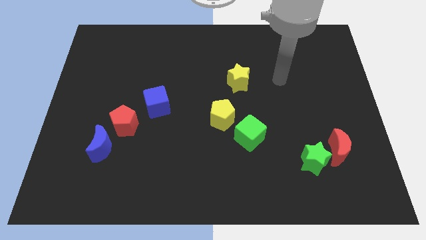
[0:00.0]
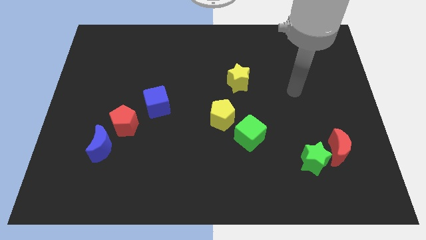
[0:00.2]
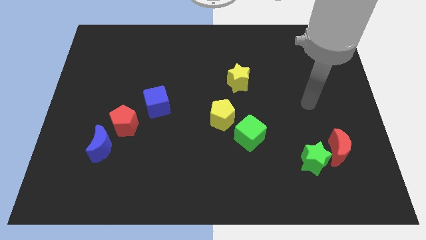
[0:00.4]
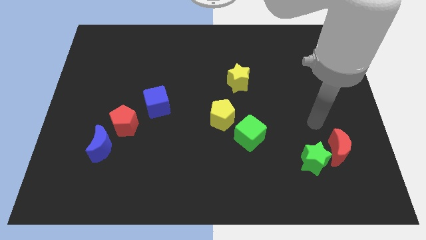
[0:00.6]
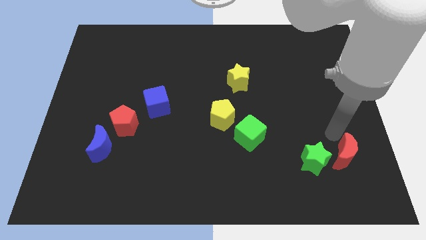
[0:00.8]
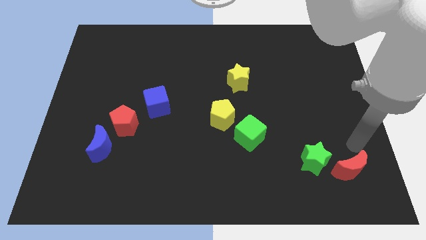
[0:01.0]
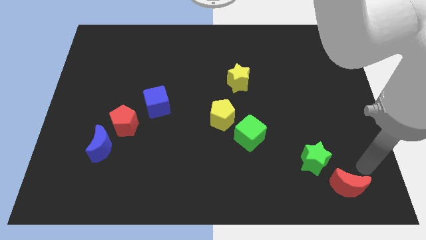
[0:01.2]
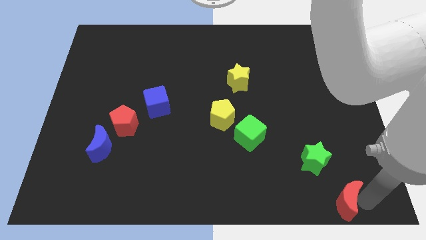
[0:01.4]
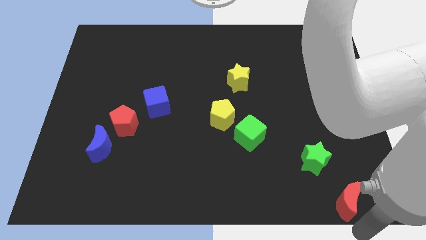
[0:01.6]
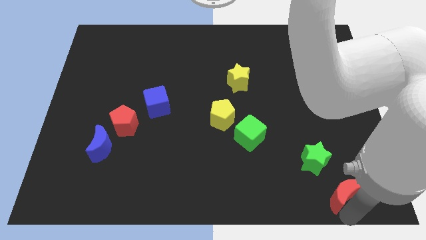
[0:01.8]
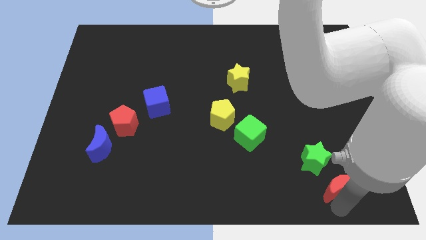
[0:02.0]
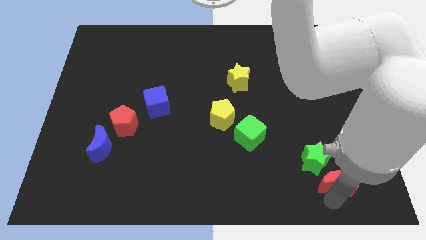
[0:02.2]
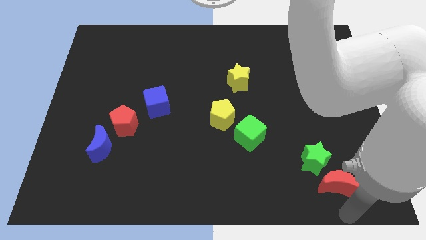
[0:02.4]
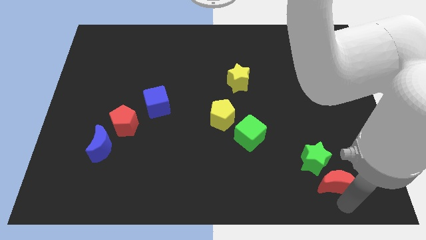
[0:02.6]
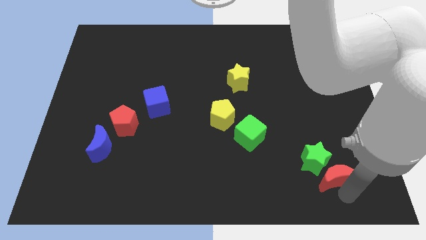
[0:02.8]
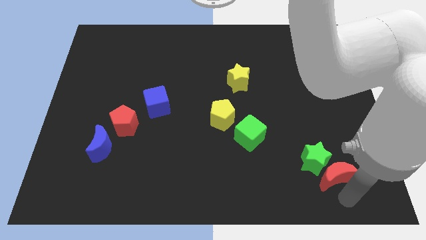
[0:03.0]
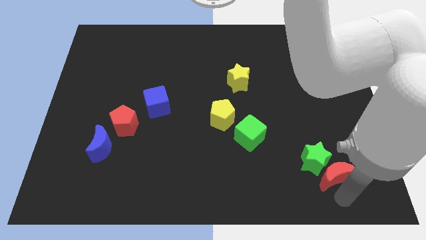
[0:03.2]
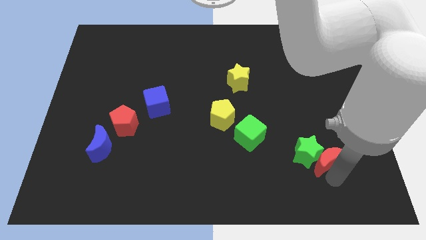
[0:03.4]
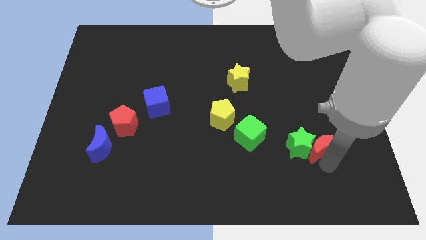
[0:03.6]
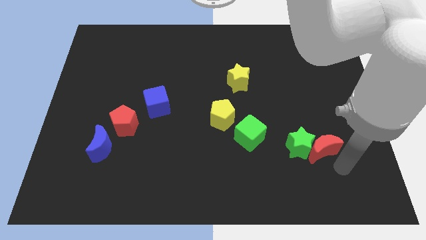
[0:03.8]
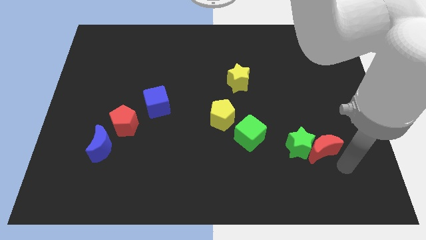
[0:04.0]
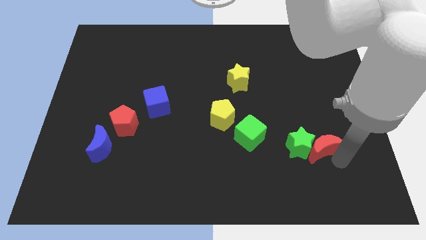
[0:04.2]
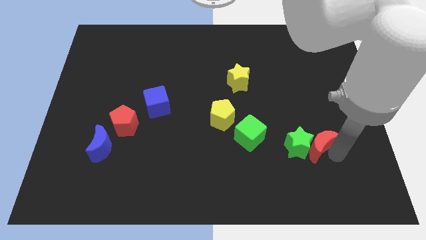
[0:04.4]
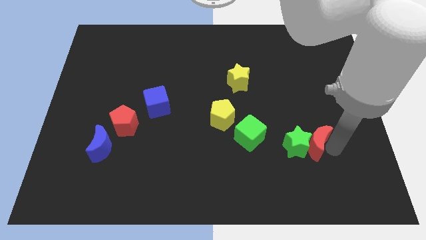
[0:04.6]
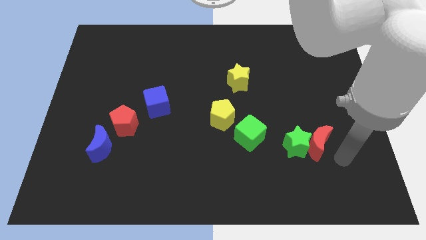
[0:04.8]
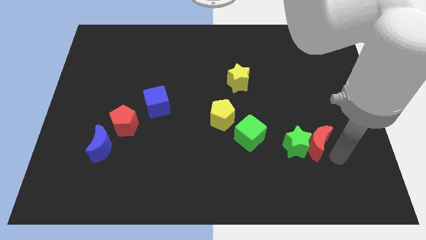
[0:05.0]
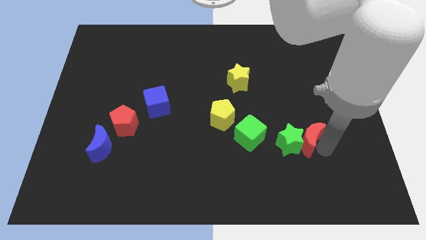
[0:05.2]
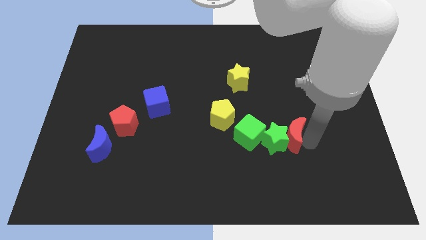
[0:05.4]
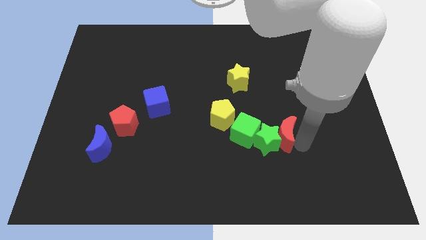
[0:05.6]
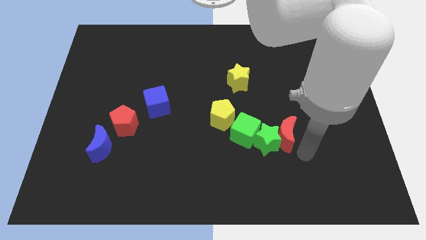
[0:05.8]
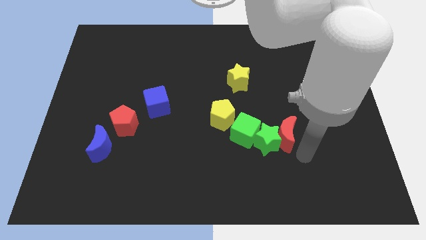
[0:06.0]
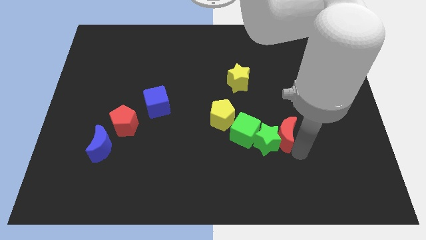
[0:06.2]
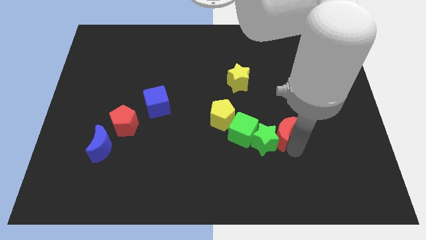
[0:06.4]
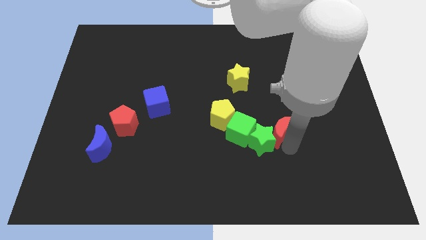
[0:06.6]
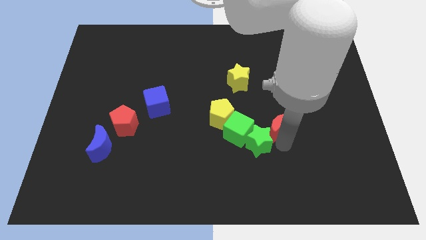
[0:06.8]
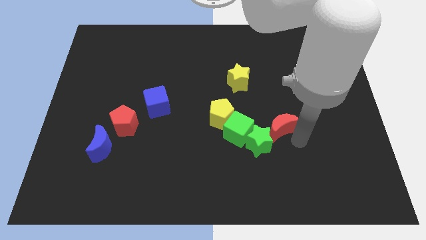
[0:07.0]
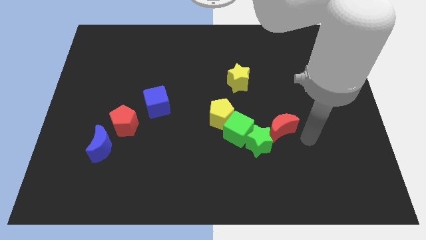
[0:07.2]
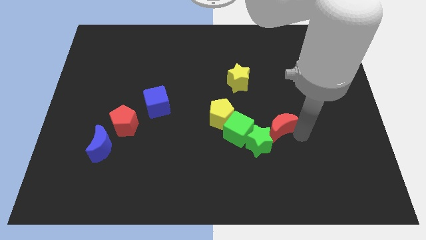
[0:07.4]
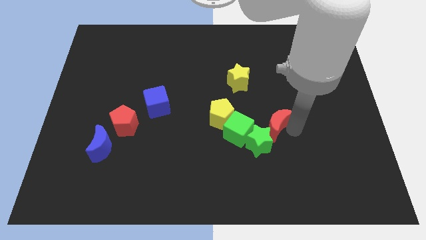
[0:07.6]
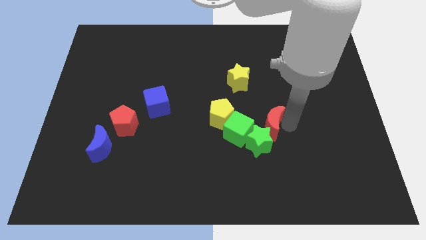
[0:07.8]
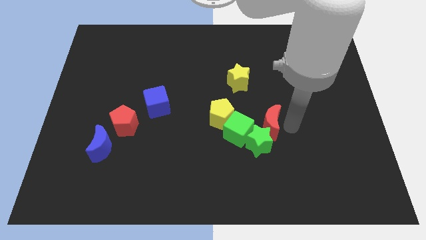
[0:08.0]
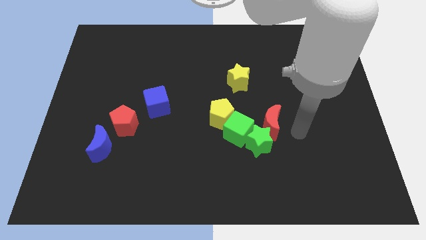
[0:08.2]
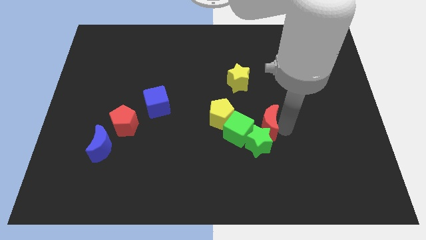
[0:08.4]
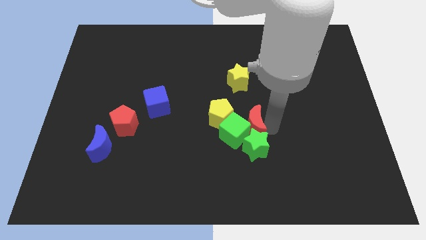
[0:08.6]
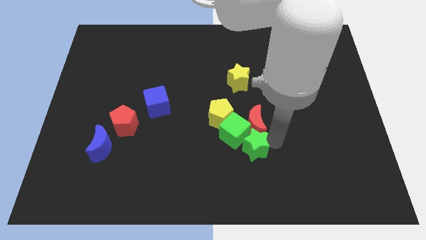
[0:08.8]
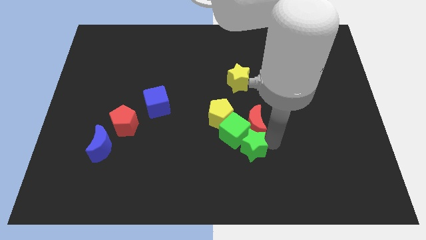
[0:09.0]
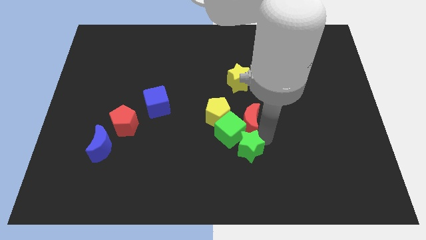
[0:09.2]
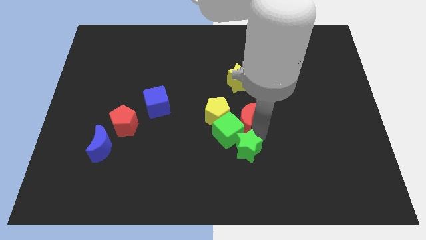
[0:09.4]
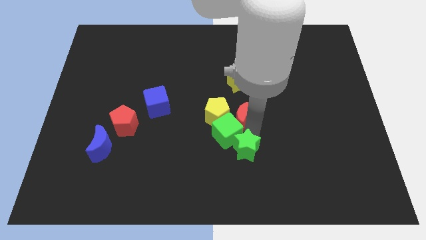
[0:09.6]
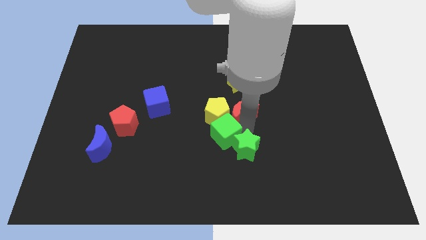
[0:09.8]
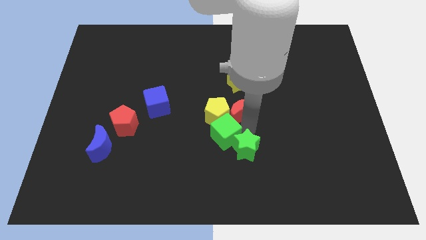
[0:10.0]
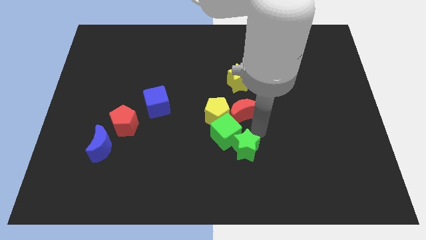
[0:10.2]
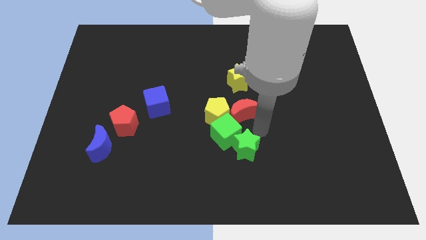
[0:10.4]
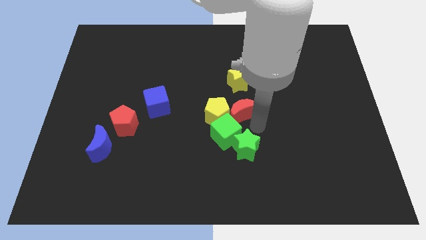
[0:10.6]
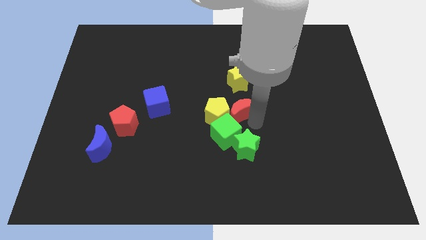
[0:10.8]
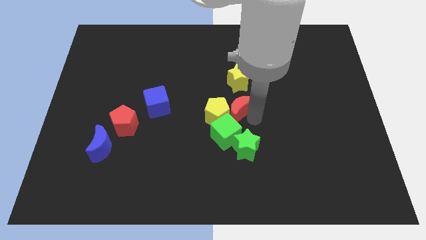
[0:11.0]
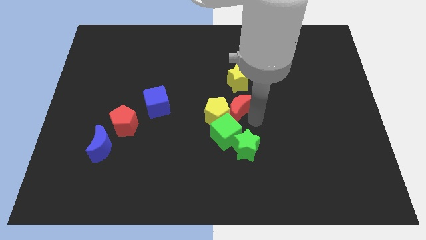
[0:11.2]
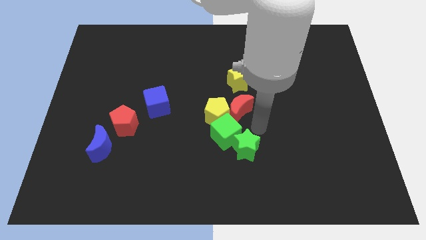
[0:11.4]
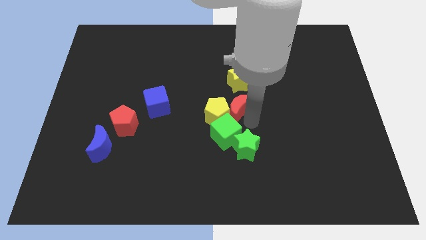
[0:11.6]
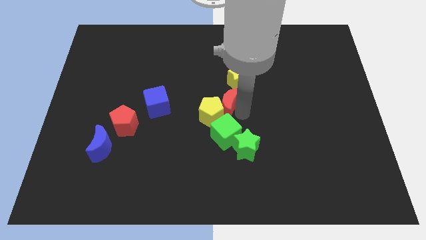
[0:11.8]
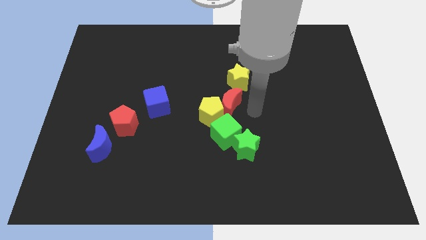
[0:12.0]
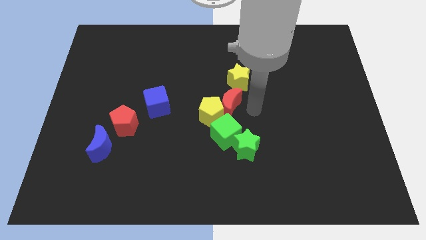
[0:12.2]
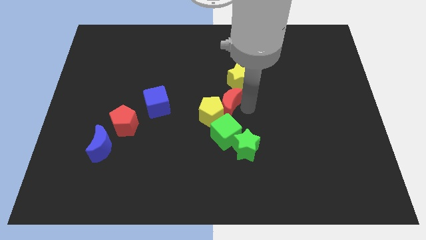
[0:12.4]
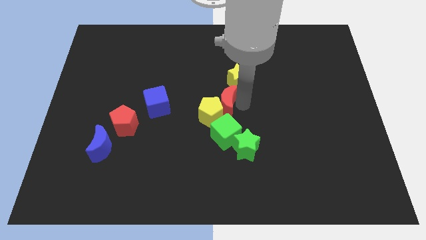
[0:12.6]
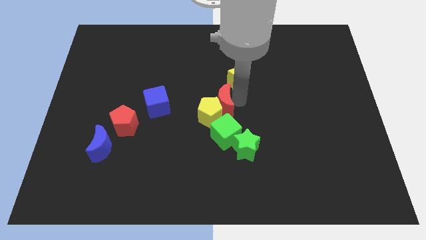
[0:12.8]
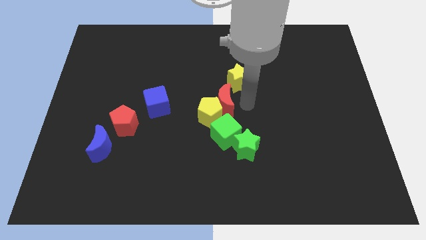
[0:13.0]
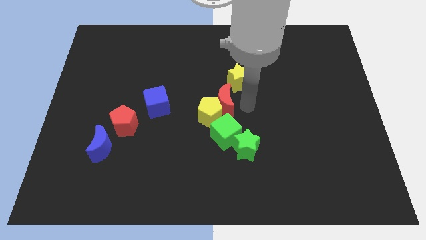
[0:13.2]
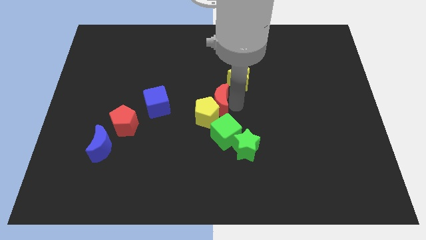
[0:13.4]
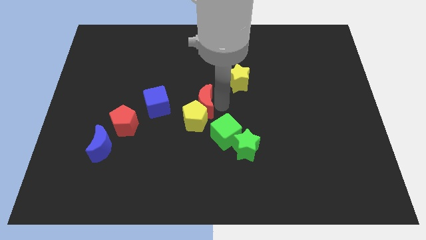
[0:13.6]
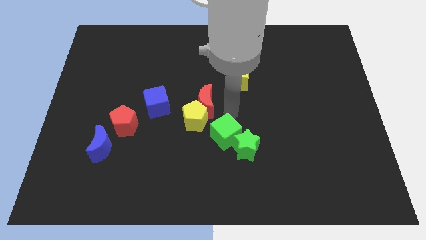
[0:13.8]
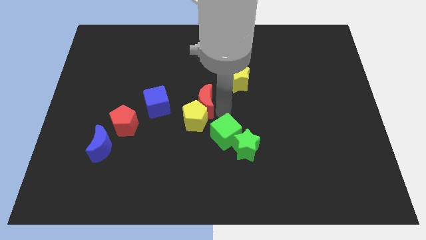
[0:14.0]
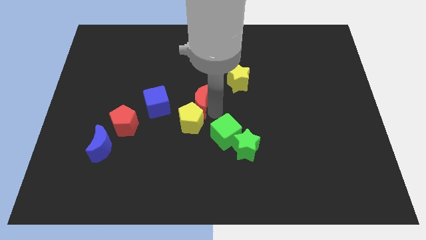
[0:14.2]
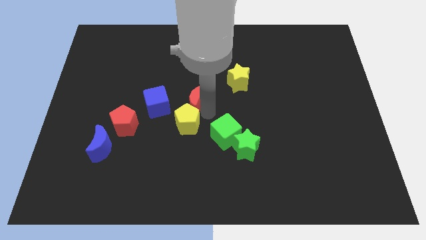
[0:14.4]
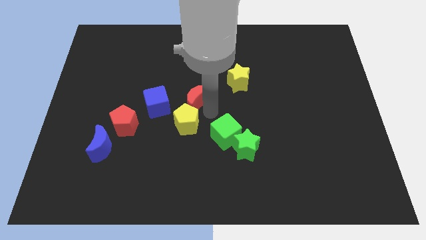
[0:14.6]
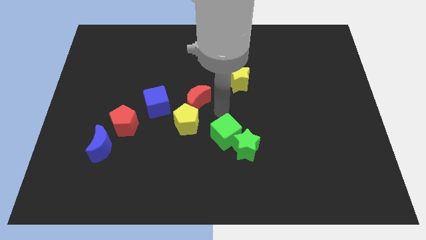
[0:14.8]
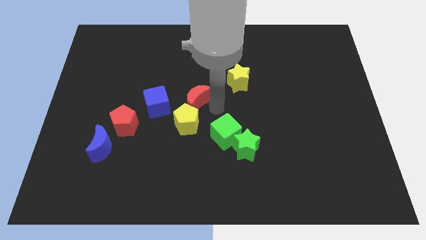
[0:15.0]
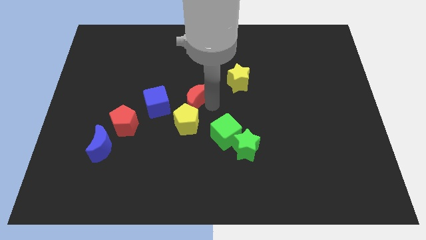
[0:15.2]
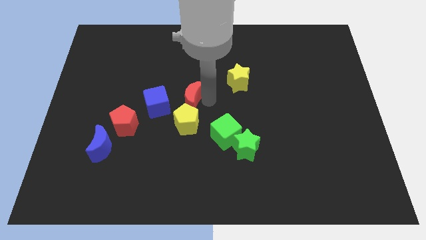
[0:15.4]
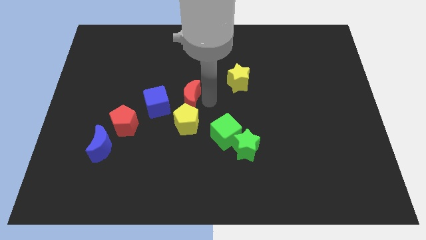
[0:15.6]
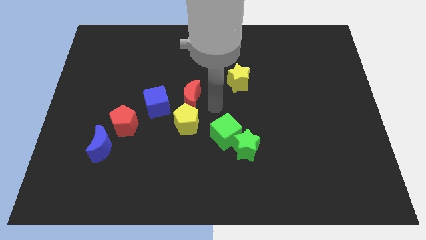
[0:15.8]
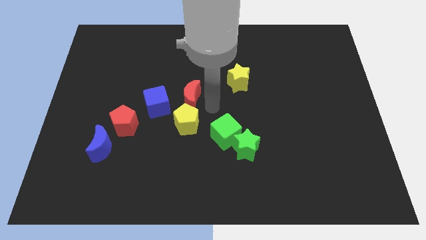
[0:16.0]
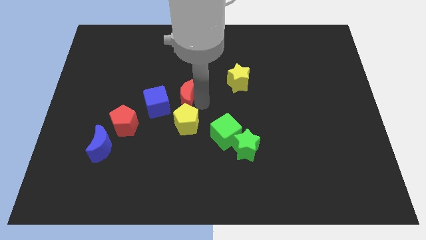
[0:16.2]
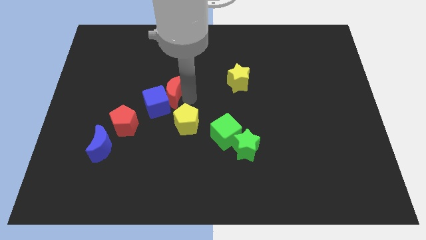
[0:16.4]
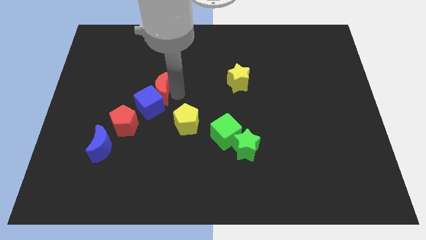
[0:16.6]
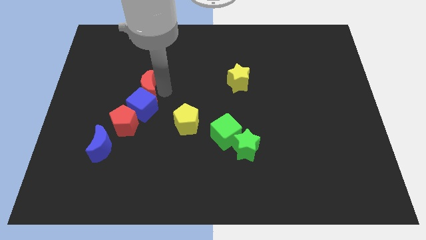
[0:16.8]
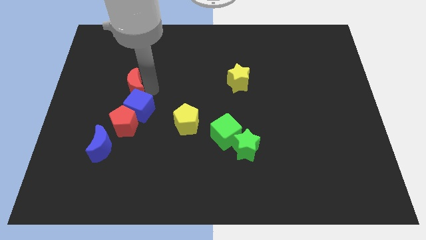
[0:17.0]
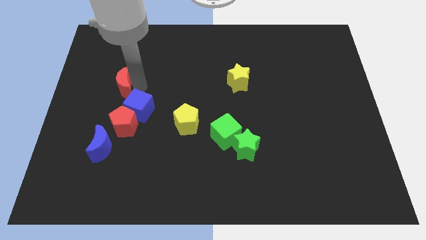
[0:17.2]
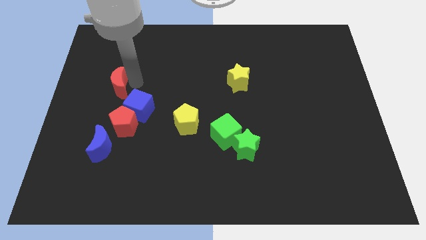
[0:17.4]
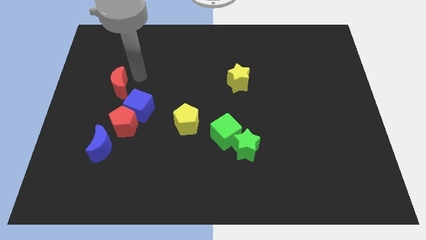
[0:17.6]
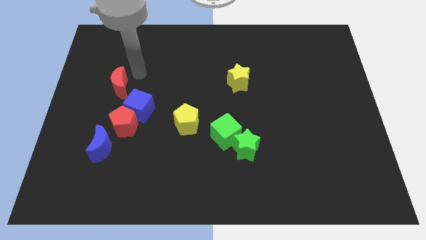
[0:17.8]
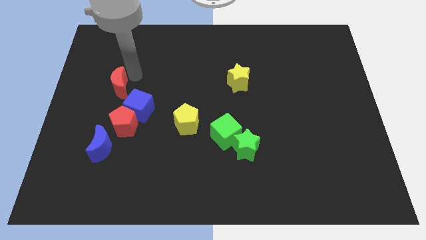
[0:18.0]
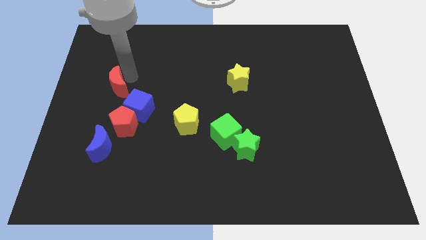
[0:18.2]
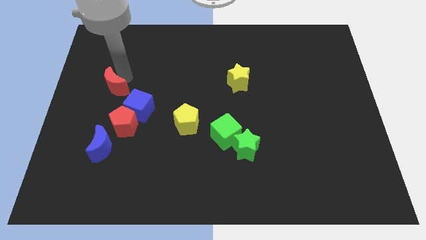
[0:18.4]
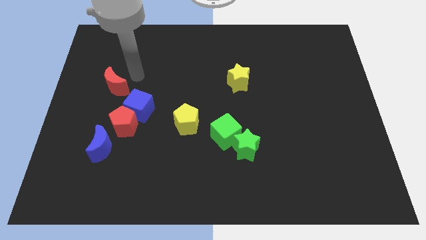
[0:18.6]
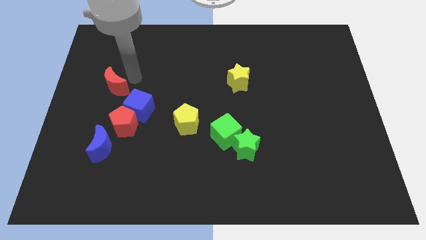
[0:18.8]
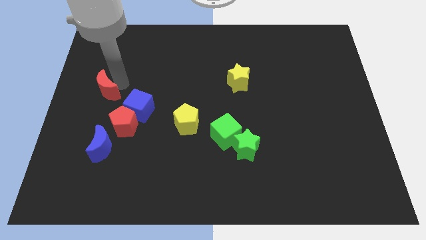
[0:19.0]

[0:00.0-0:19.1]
push the red moon to the left side
